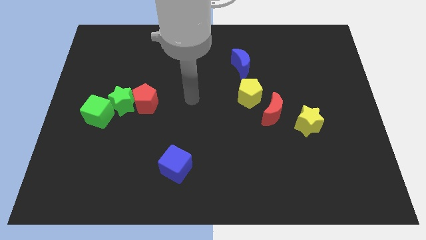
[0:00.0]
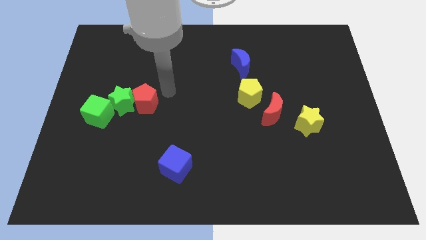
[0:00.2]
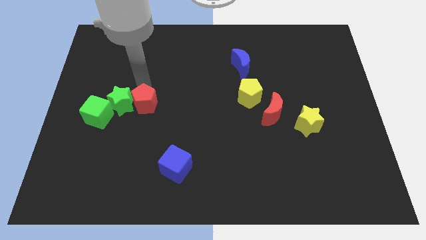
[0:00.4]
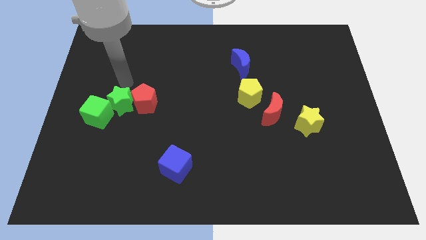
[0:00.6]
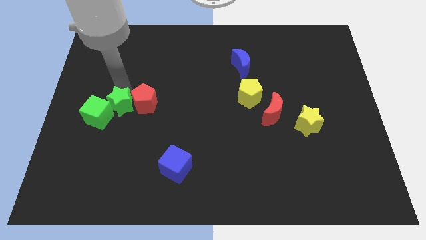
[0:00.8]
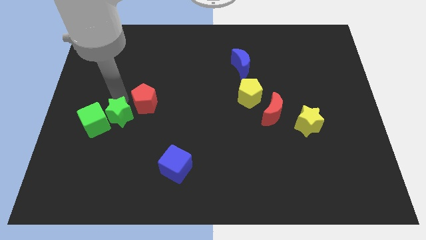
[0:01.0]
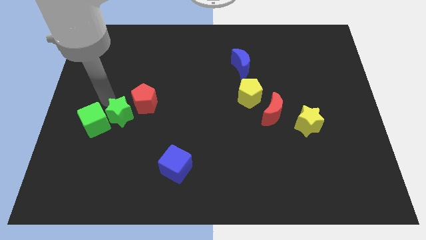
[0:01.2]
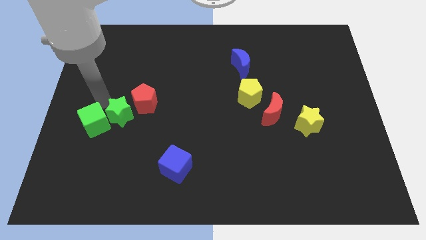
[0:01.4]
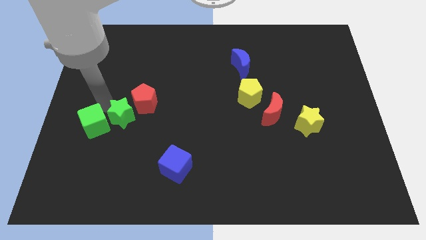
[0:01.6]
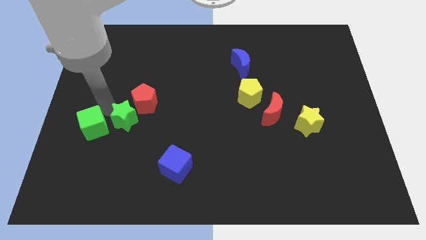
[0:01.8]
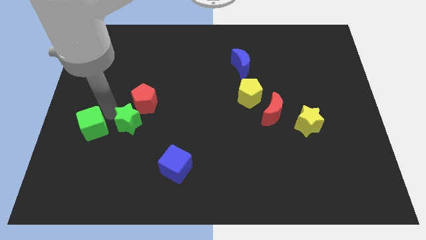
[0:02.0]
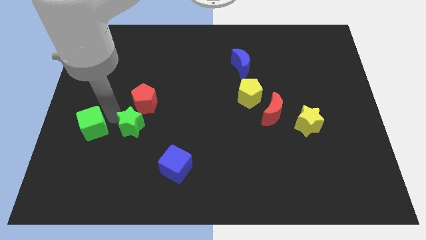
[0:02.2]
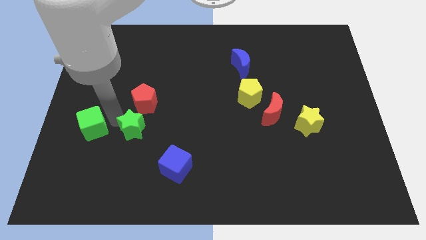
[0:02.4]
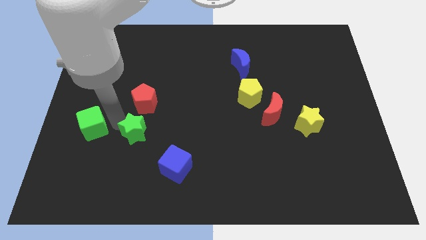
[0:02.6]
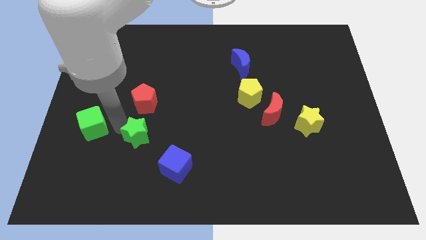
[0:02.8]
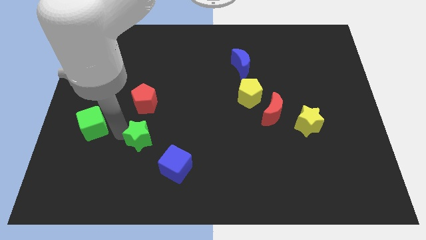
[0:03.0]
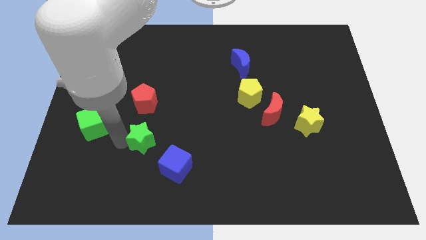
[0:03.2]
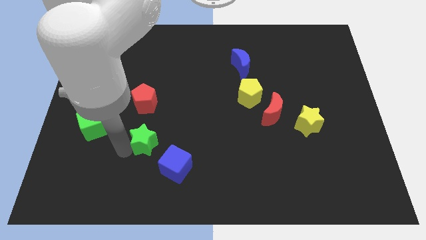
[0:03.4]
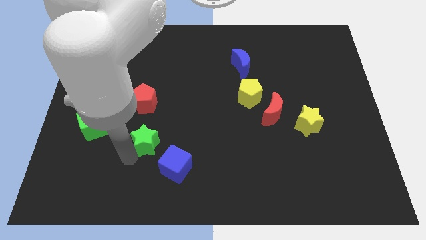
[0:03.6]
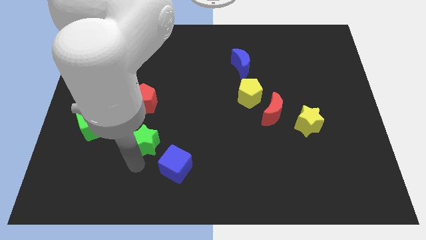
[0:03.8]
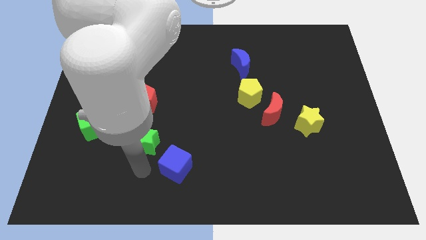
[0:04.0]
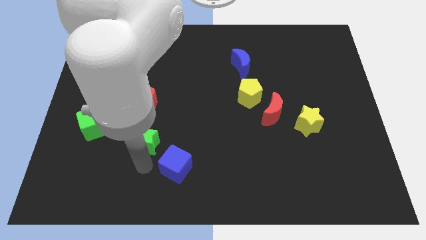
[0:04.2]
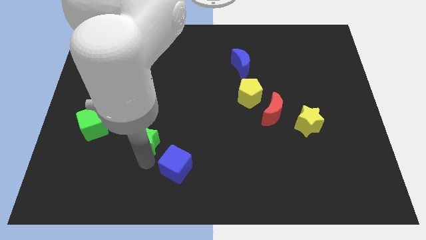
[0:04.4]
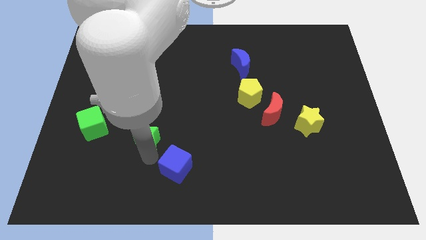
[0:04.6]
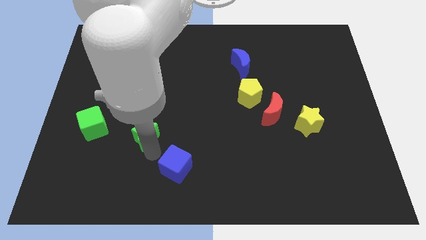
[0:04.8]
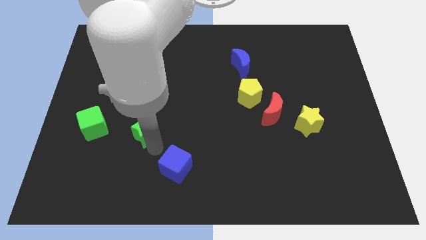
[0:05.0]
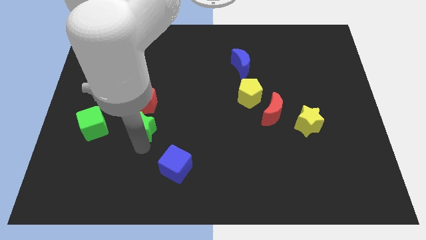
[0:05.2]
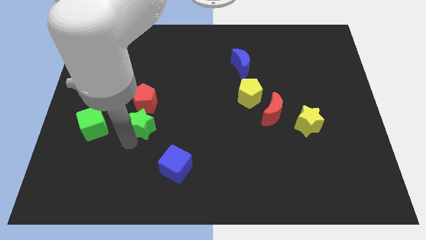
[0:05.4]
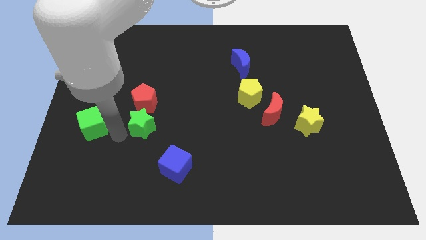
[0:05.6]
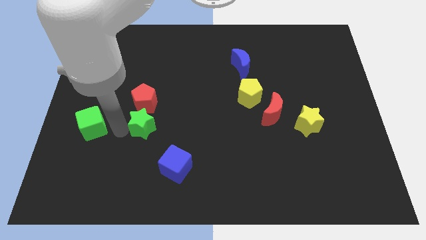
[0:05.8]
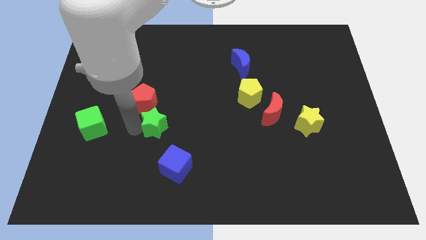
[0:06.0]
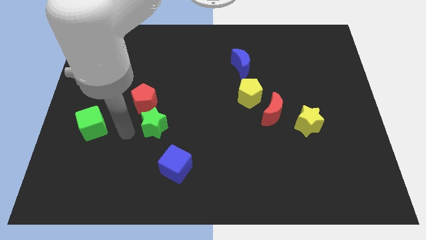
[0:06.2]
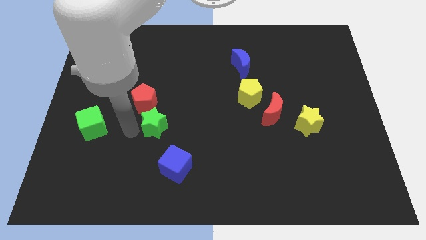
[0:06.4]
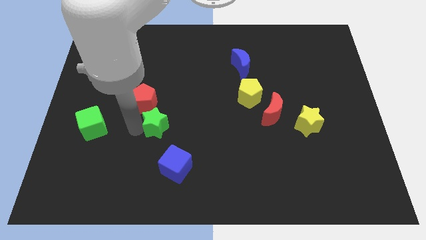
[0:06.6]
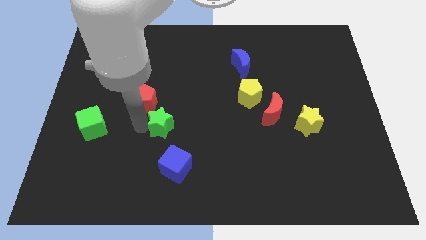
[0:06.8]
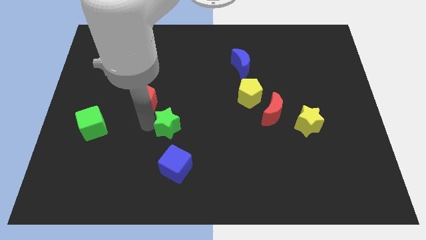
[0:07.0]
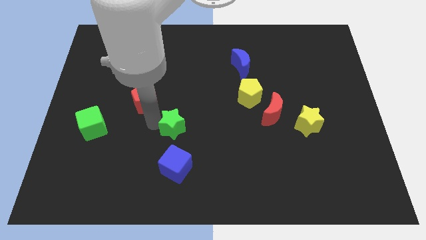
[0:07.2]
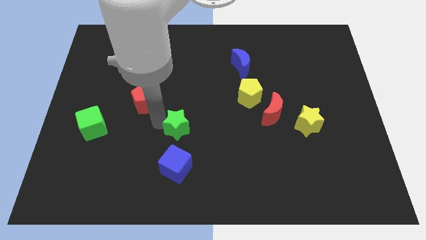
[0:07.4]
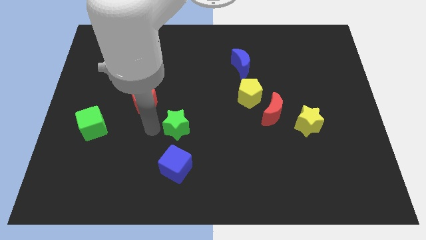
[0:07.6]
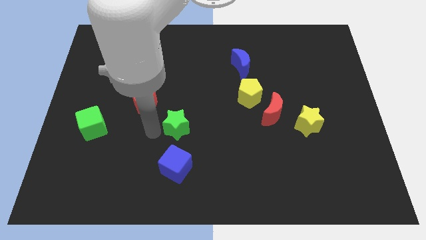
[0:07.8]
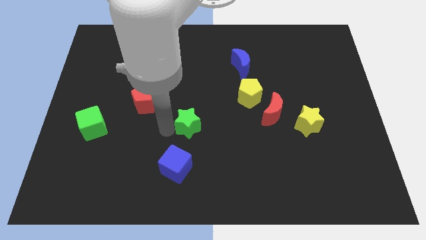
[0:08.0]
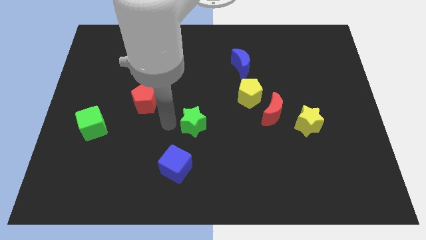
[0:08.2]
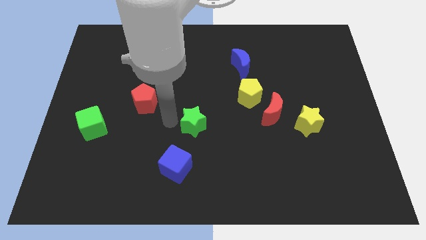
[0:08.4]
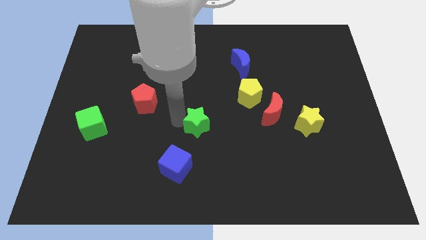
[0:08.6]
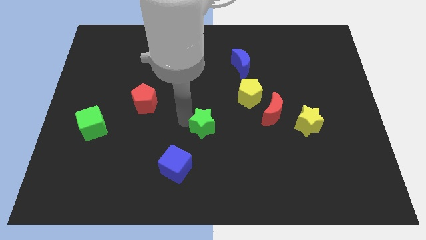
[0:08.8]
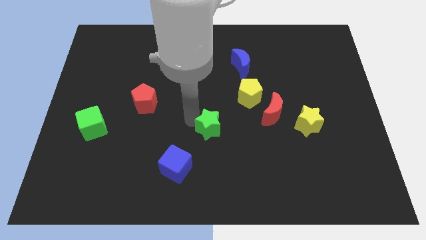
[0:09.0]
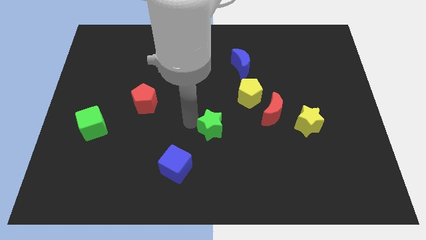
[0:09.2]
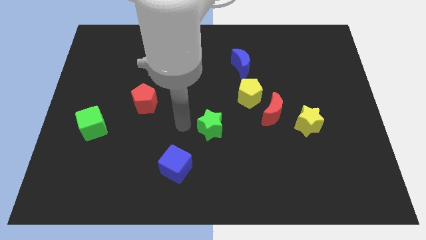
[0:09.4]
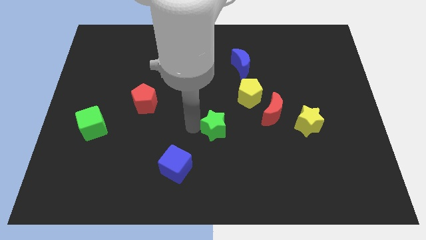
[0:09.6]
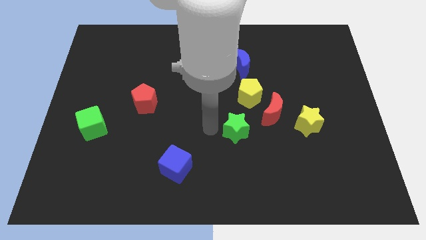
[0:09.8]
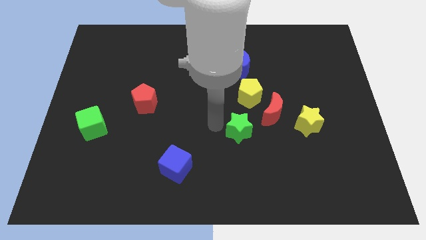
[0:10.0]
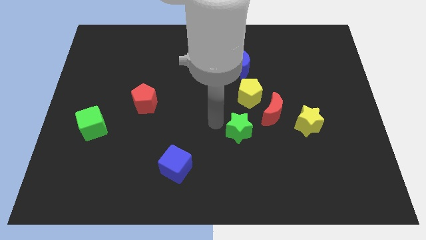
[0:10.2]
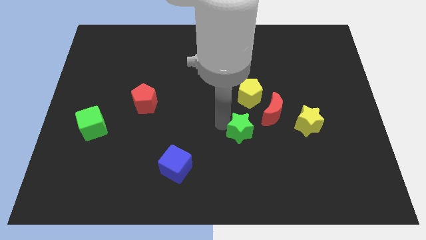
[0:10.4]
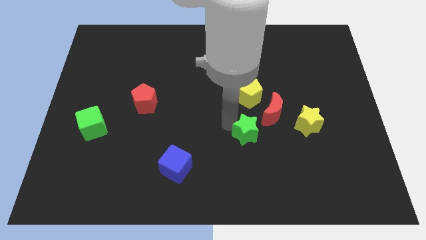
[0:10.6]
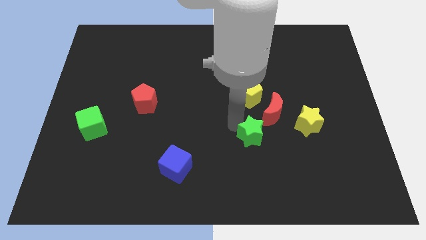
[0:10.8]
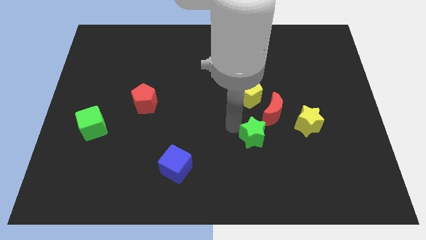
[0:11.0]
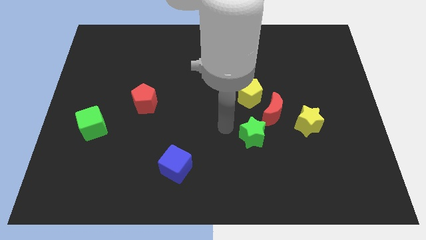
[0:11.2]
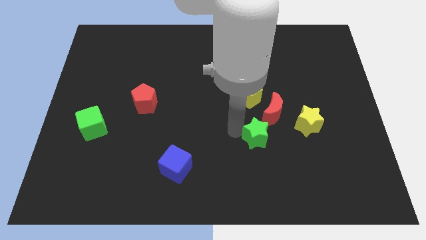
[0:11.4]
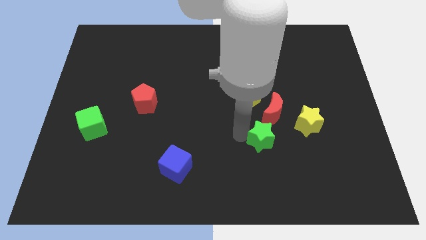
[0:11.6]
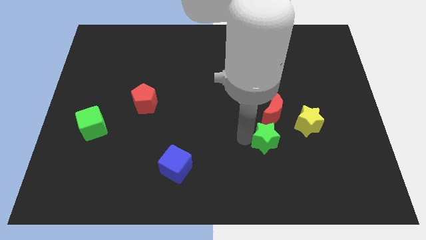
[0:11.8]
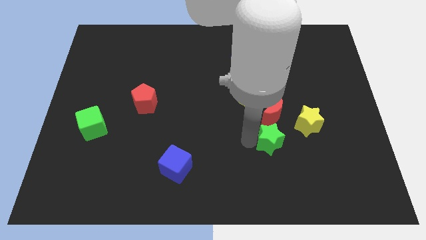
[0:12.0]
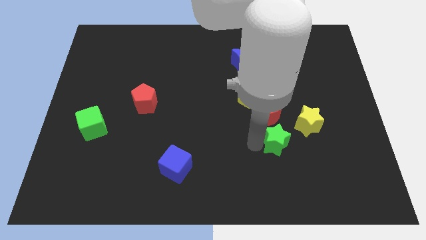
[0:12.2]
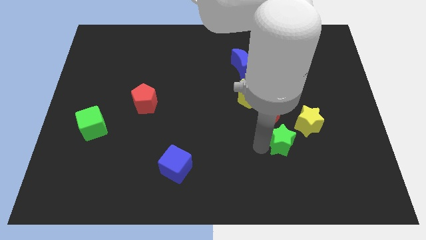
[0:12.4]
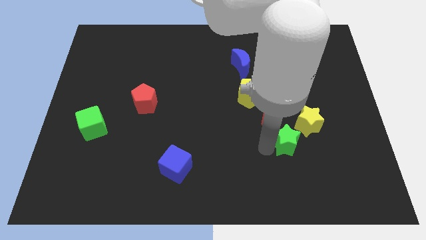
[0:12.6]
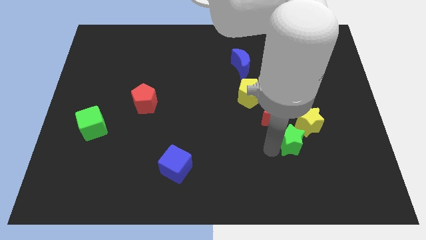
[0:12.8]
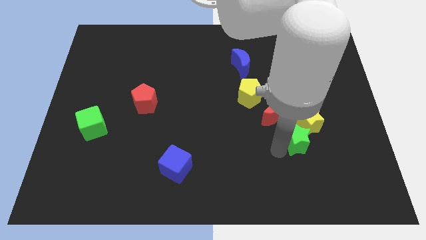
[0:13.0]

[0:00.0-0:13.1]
slide the green star close to the yellow star

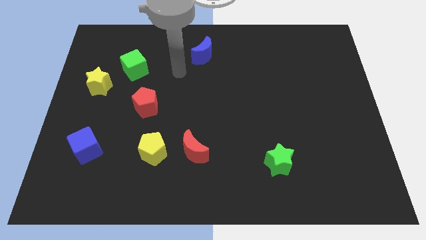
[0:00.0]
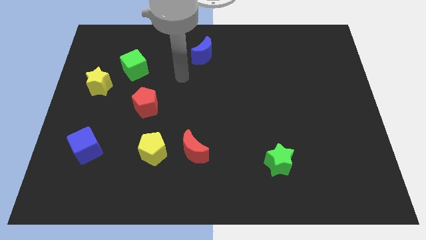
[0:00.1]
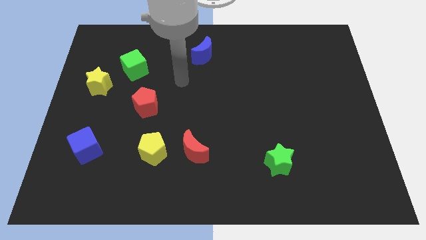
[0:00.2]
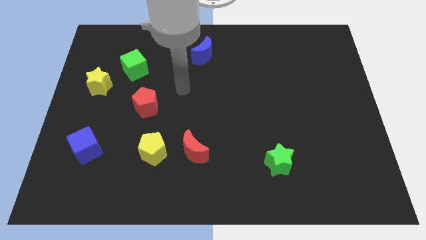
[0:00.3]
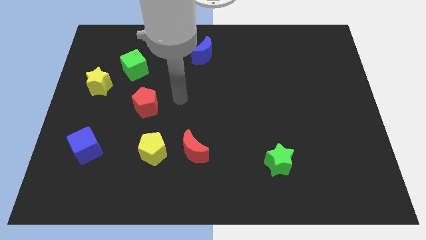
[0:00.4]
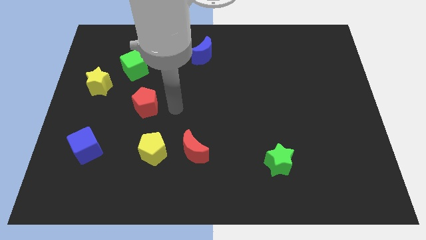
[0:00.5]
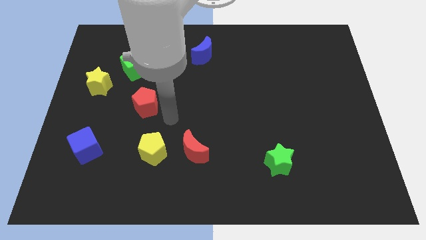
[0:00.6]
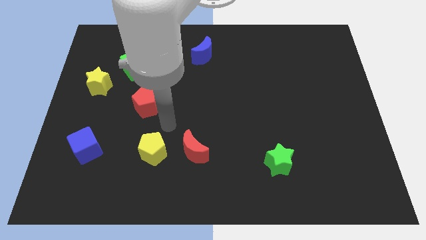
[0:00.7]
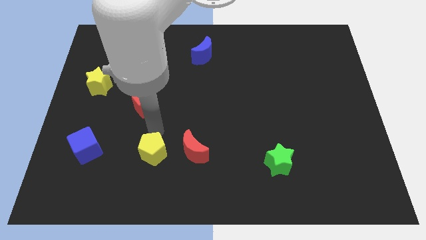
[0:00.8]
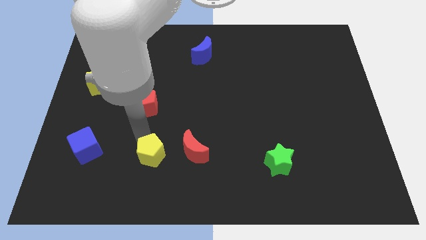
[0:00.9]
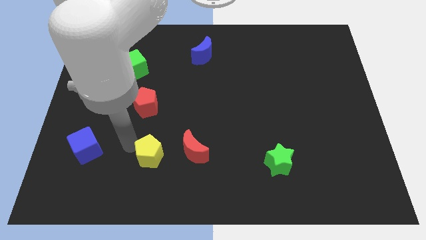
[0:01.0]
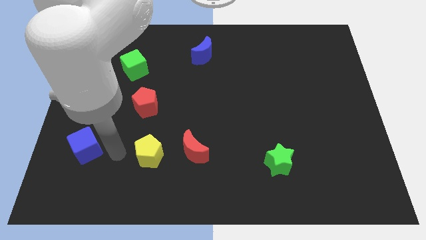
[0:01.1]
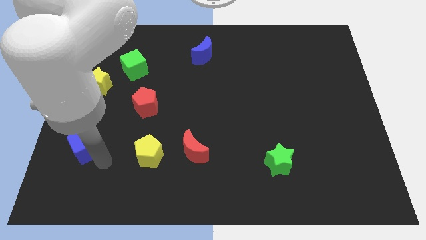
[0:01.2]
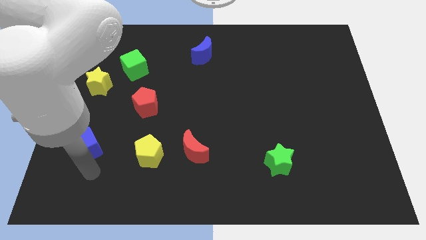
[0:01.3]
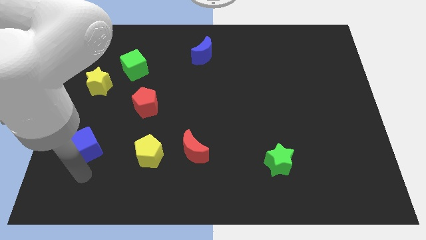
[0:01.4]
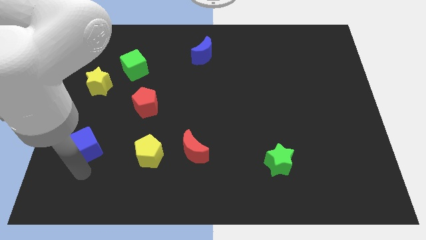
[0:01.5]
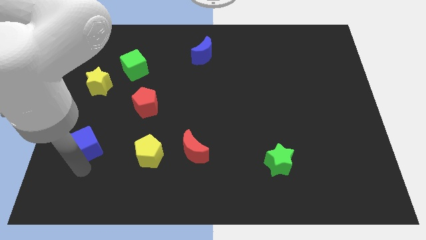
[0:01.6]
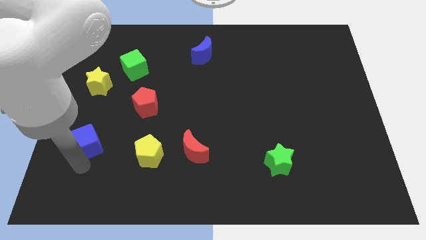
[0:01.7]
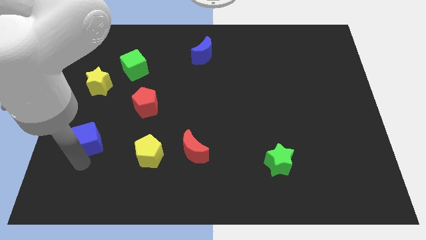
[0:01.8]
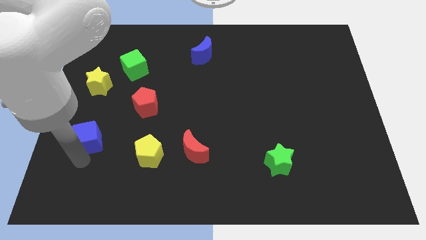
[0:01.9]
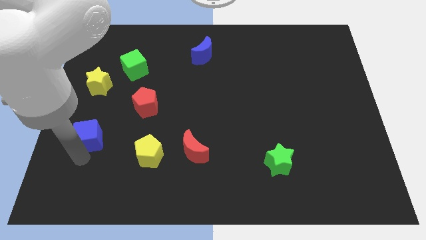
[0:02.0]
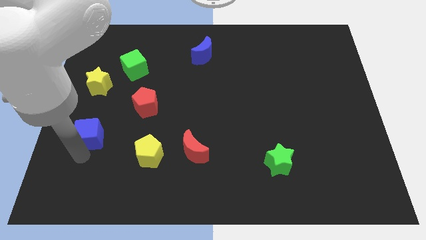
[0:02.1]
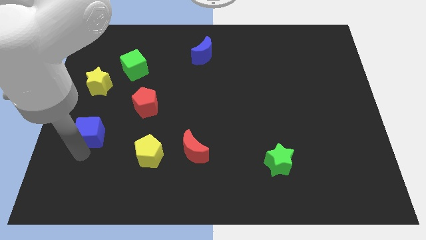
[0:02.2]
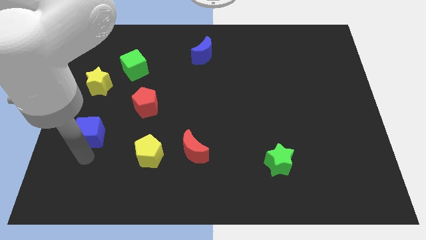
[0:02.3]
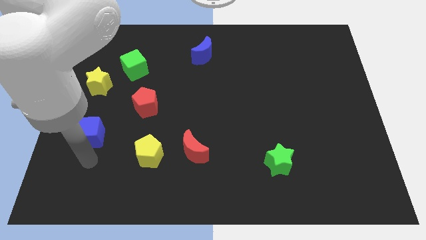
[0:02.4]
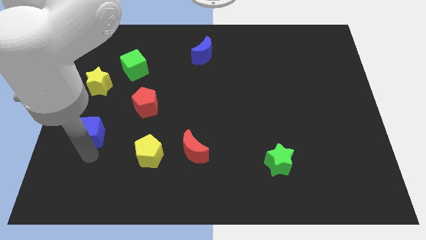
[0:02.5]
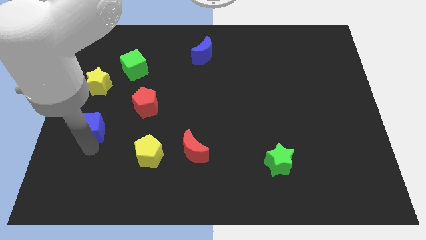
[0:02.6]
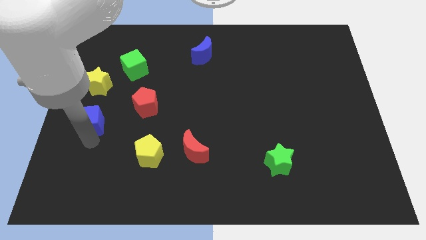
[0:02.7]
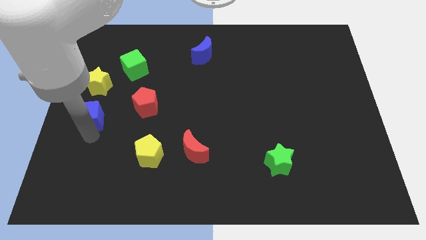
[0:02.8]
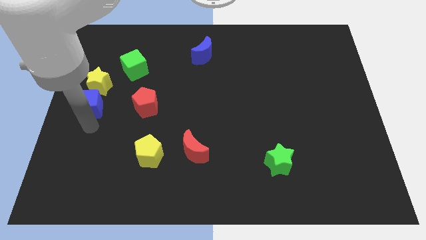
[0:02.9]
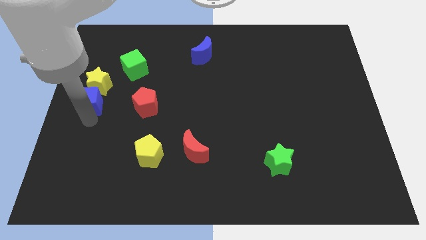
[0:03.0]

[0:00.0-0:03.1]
put the blue cube to the yellow star
